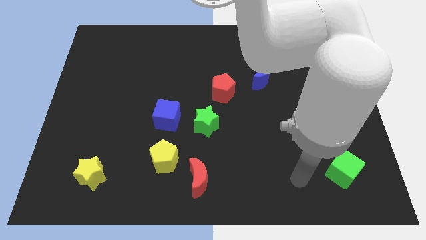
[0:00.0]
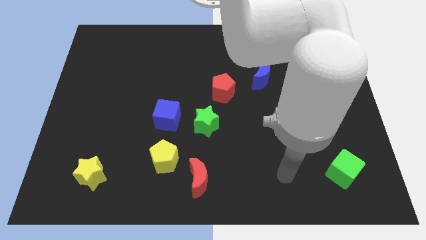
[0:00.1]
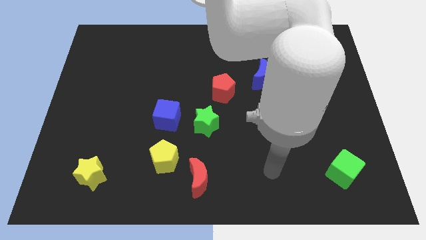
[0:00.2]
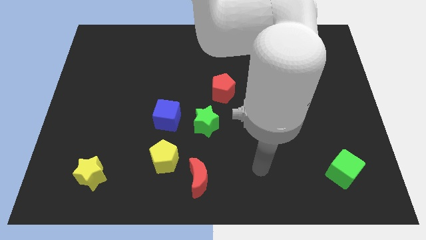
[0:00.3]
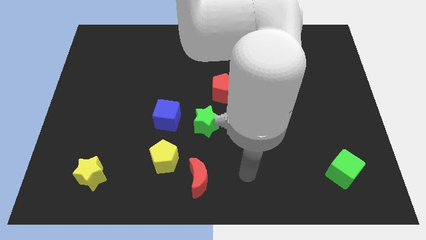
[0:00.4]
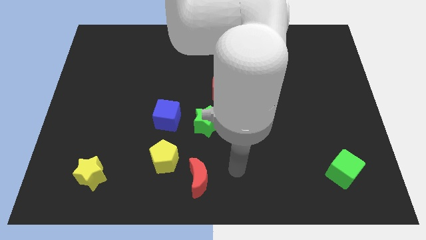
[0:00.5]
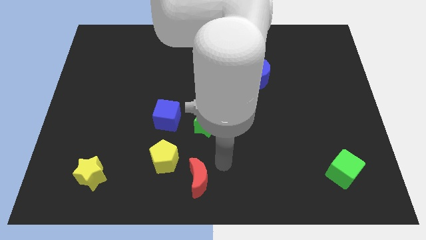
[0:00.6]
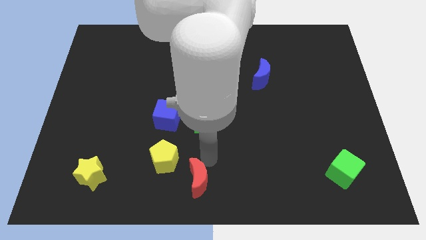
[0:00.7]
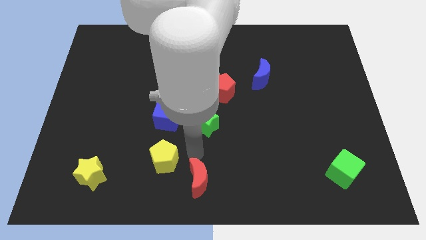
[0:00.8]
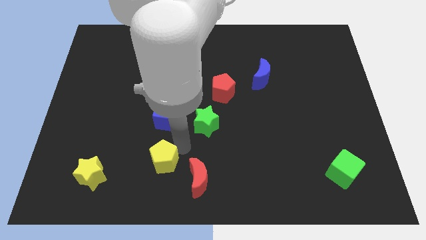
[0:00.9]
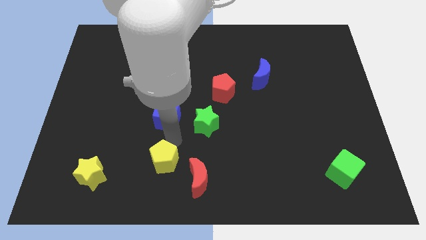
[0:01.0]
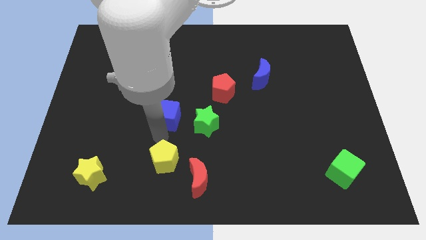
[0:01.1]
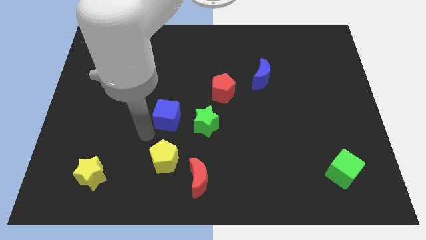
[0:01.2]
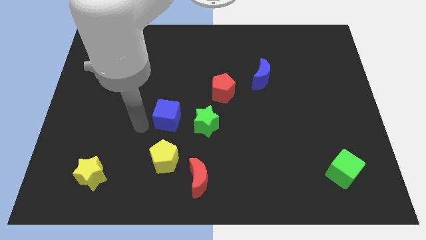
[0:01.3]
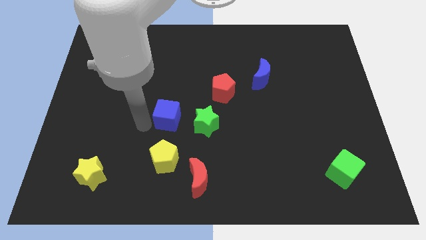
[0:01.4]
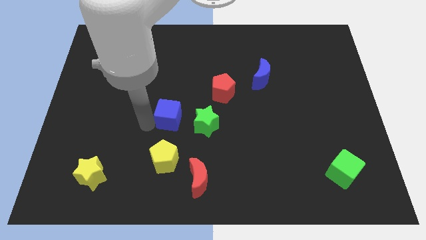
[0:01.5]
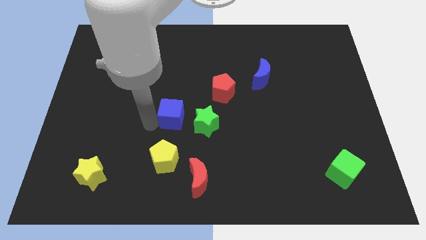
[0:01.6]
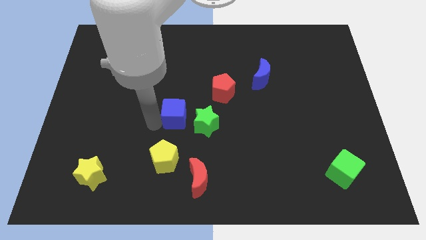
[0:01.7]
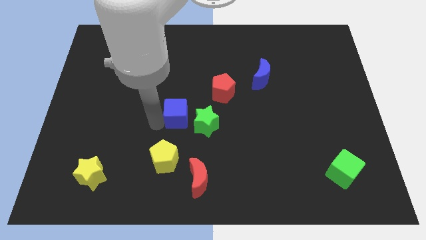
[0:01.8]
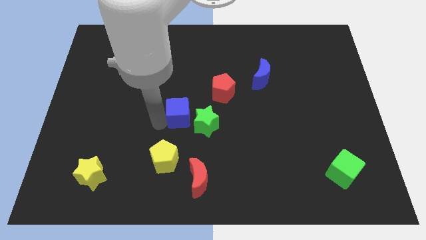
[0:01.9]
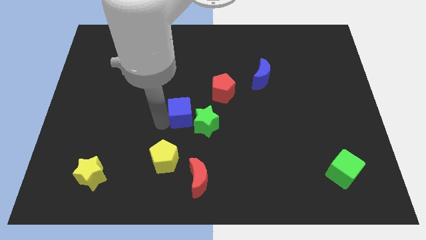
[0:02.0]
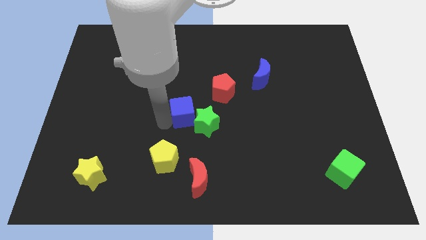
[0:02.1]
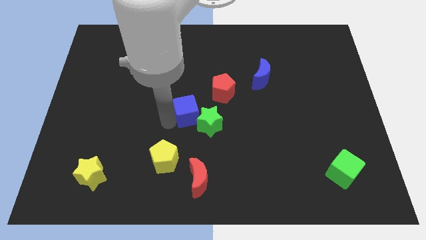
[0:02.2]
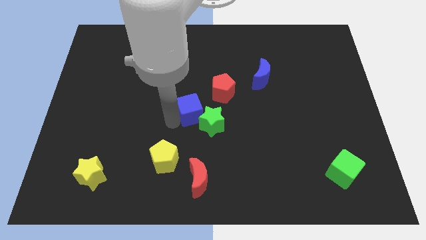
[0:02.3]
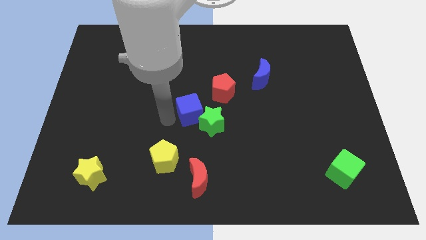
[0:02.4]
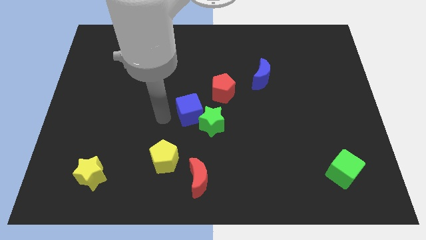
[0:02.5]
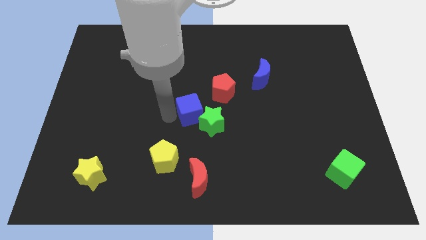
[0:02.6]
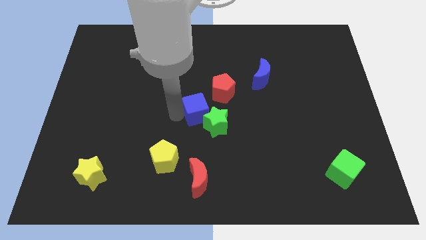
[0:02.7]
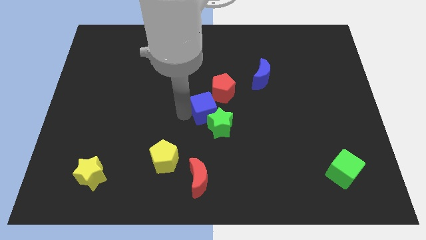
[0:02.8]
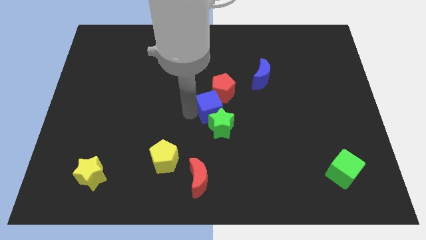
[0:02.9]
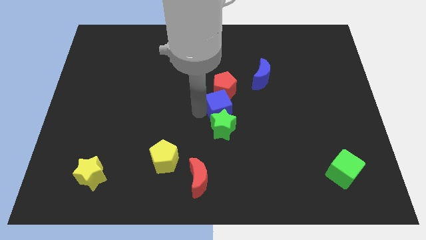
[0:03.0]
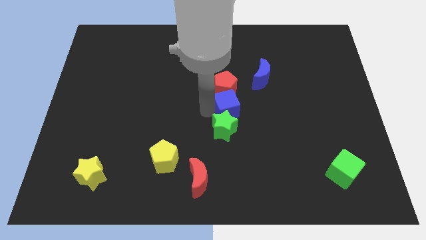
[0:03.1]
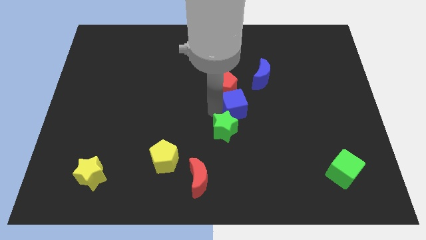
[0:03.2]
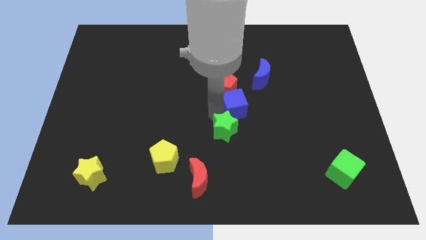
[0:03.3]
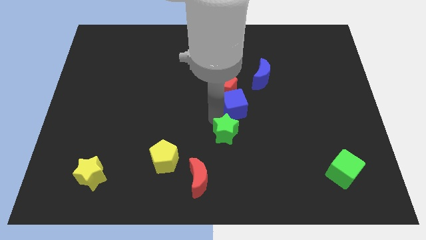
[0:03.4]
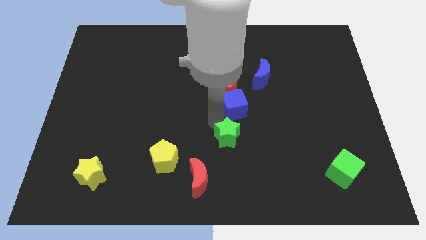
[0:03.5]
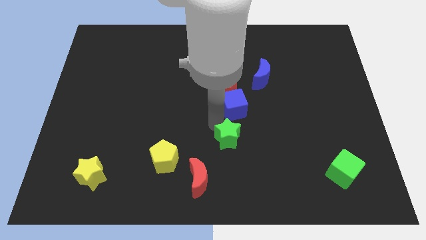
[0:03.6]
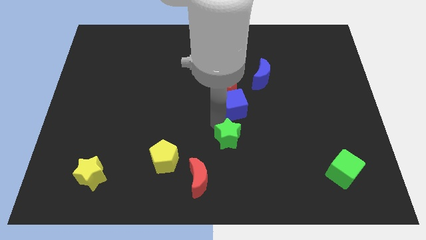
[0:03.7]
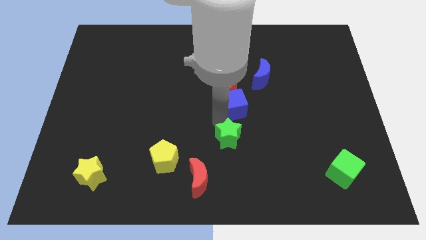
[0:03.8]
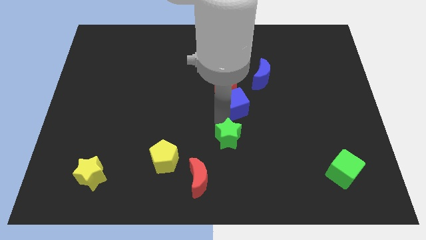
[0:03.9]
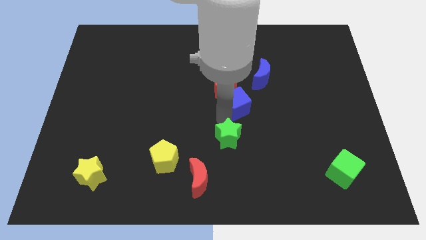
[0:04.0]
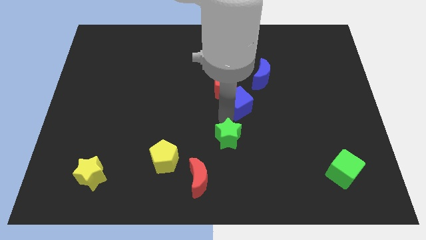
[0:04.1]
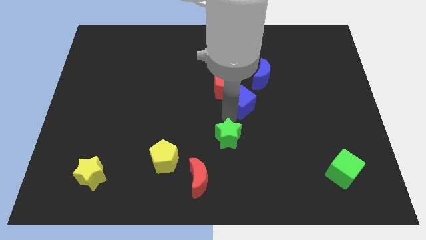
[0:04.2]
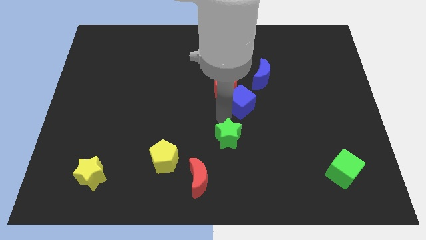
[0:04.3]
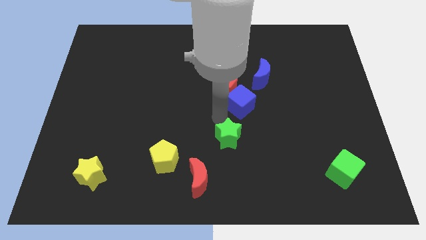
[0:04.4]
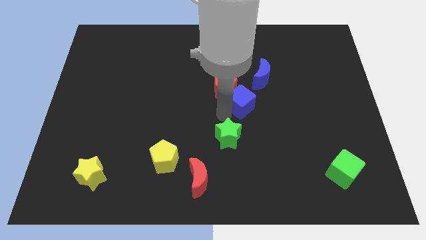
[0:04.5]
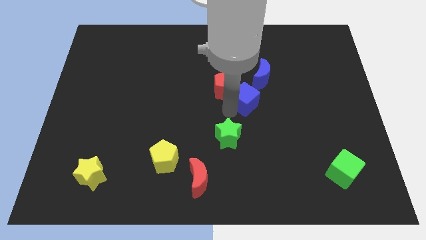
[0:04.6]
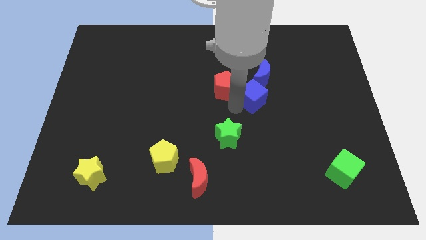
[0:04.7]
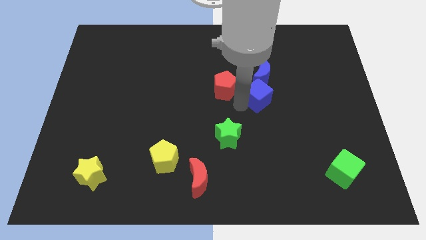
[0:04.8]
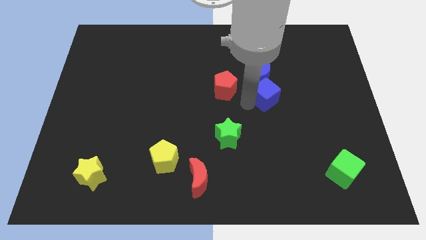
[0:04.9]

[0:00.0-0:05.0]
slide the blue cube to the blue moon

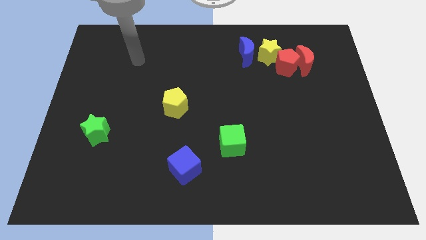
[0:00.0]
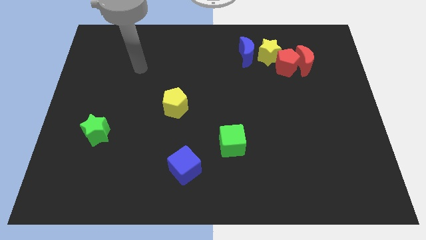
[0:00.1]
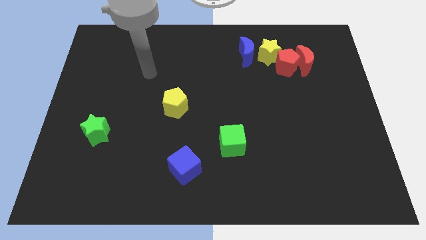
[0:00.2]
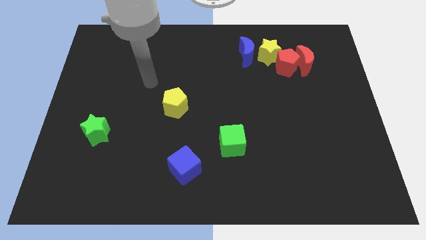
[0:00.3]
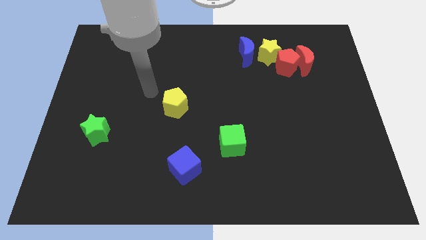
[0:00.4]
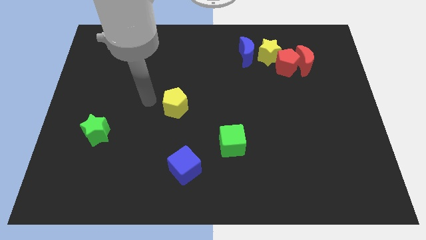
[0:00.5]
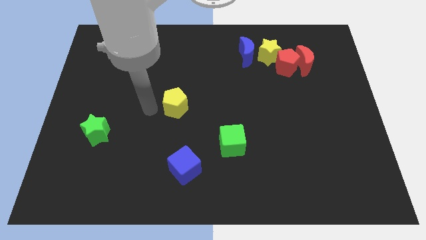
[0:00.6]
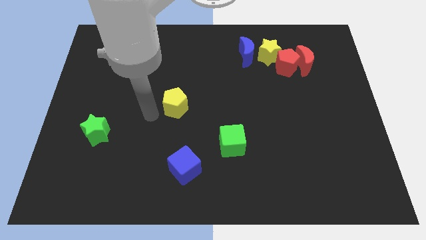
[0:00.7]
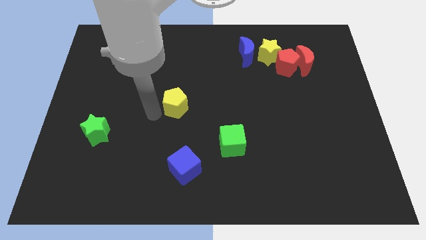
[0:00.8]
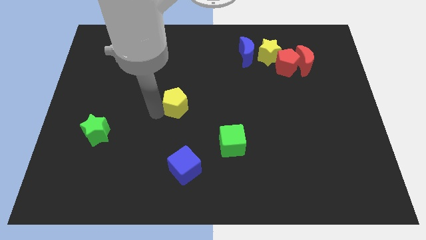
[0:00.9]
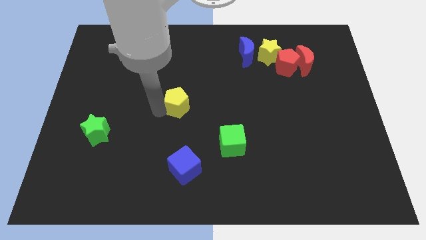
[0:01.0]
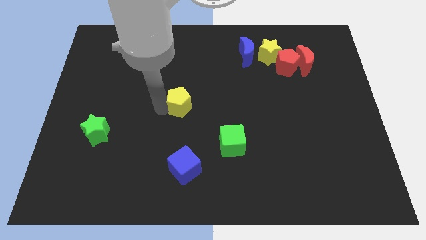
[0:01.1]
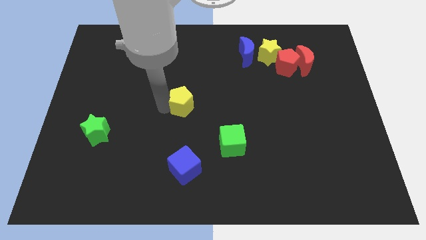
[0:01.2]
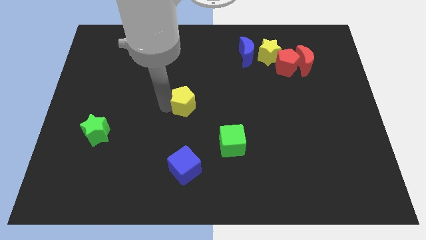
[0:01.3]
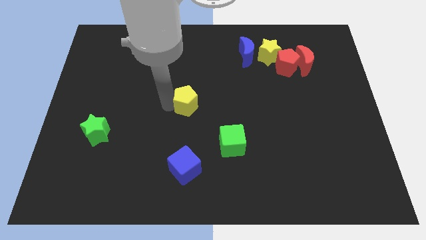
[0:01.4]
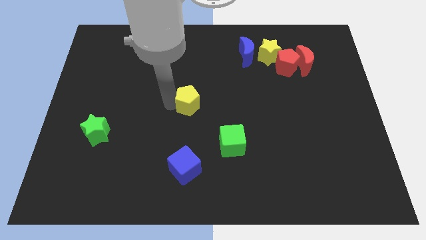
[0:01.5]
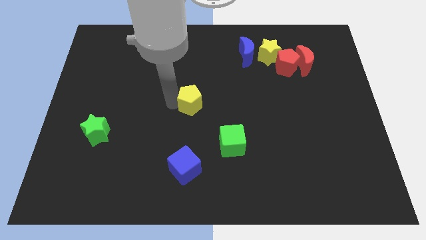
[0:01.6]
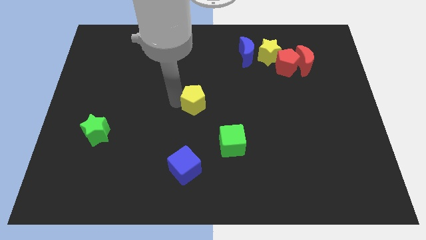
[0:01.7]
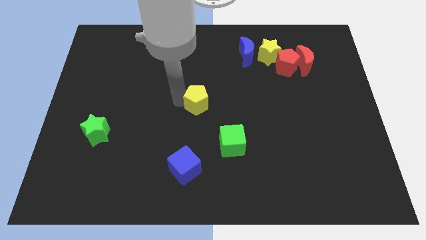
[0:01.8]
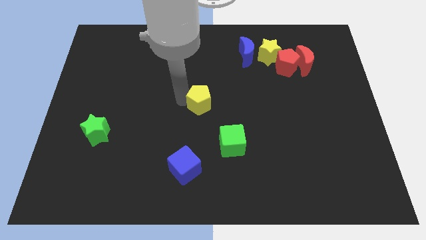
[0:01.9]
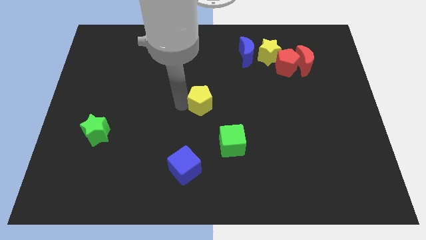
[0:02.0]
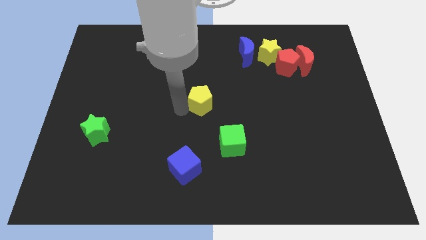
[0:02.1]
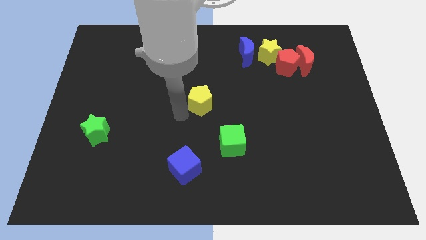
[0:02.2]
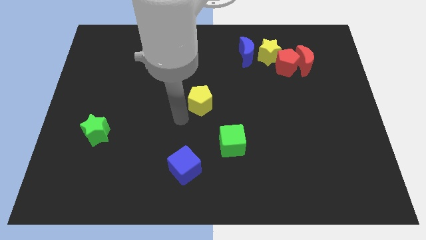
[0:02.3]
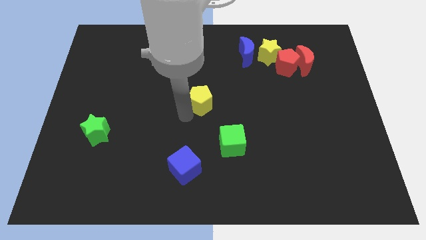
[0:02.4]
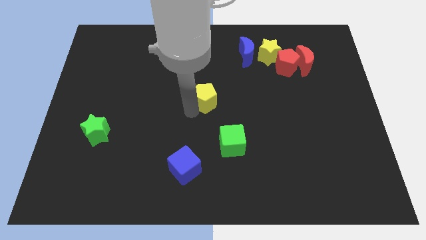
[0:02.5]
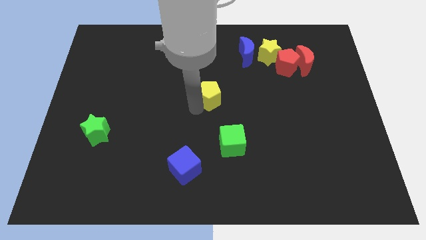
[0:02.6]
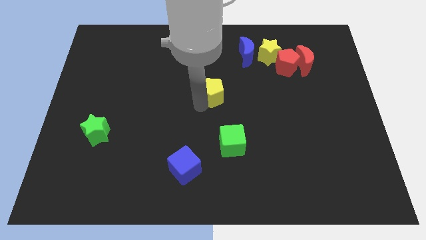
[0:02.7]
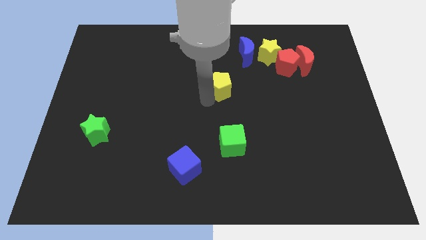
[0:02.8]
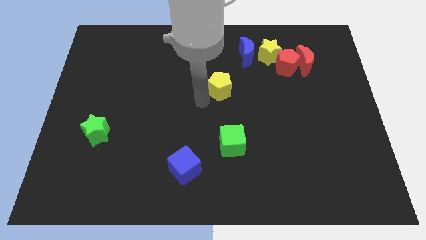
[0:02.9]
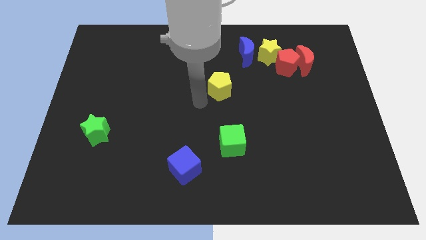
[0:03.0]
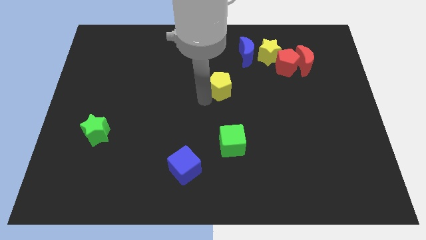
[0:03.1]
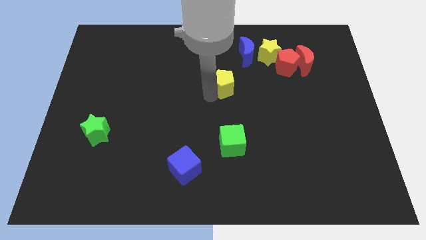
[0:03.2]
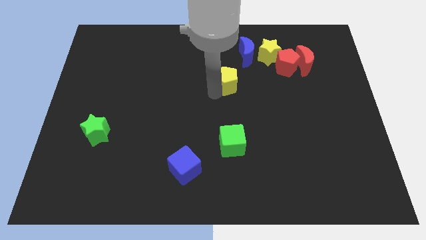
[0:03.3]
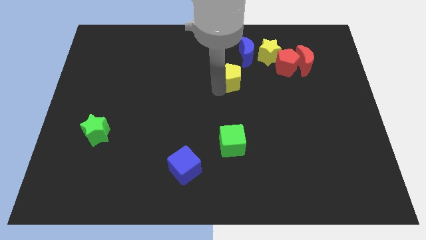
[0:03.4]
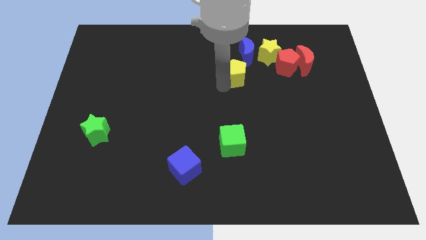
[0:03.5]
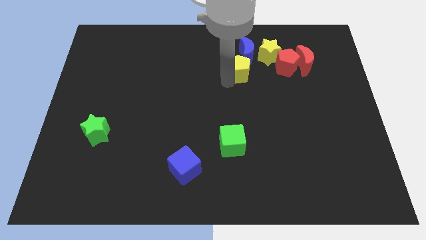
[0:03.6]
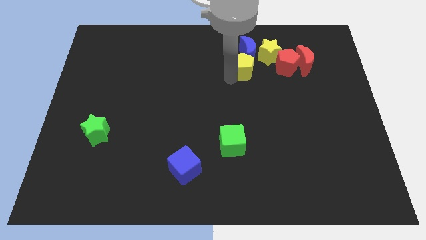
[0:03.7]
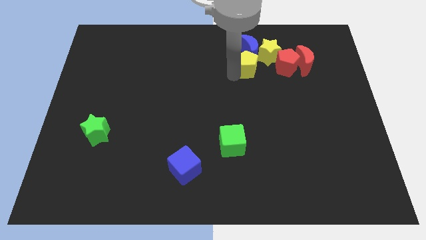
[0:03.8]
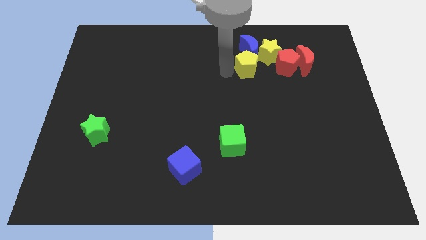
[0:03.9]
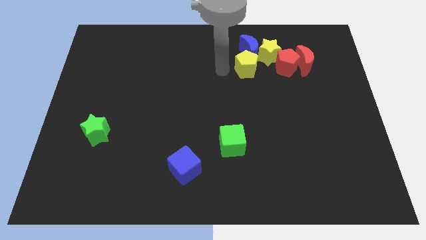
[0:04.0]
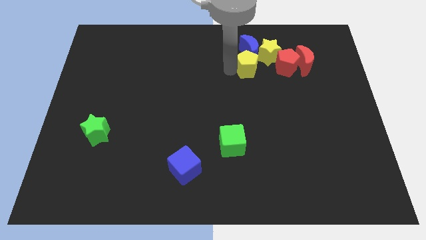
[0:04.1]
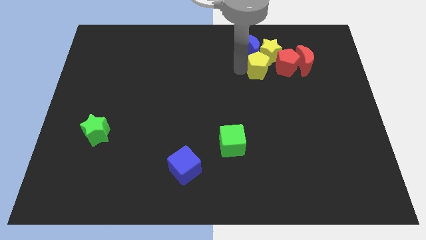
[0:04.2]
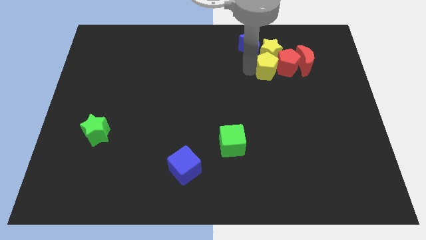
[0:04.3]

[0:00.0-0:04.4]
move the yellow pentagon next to the red pentagon
